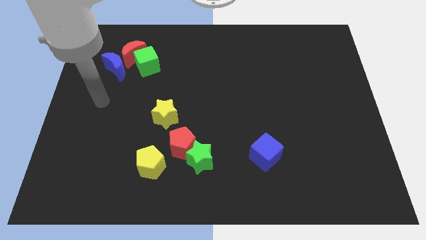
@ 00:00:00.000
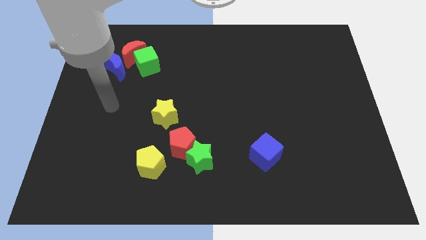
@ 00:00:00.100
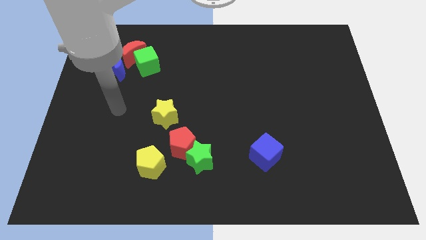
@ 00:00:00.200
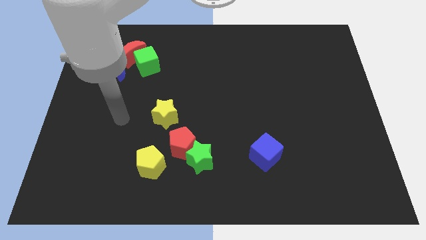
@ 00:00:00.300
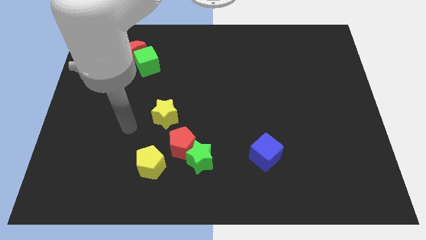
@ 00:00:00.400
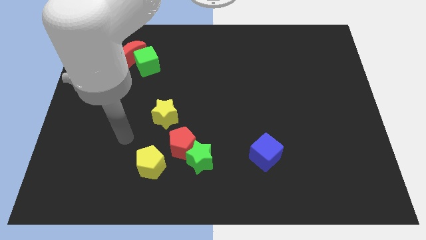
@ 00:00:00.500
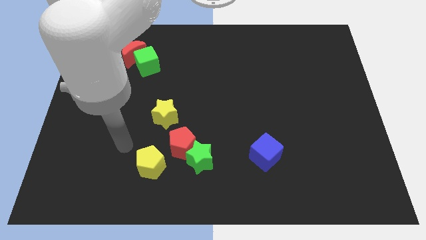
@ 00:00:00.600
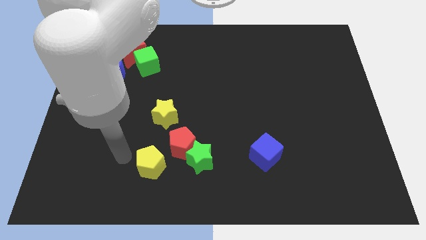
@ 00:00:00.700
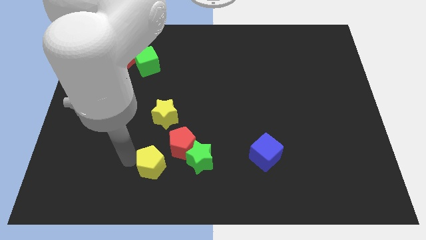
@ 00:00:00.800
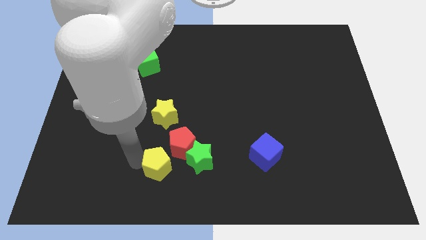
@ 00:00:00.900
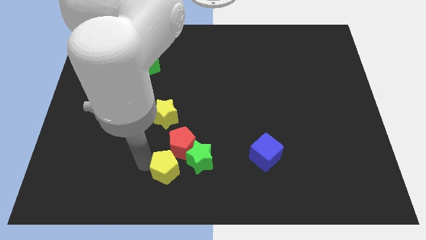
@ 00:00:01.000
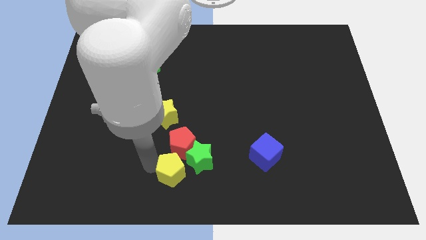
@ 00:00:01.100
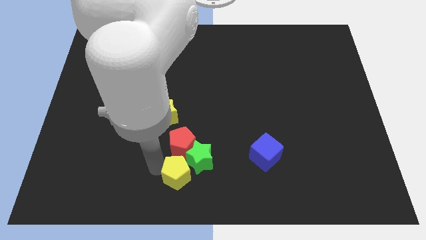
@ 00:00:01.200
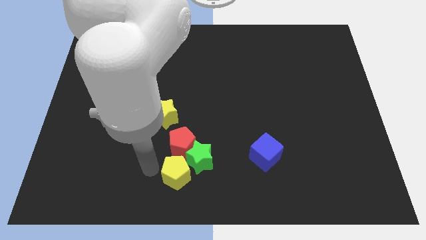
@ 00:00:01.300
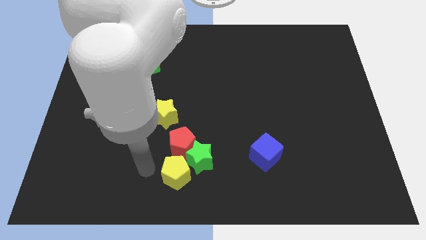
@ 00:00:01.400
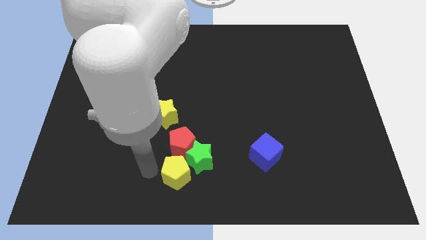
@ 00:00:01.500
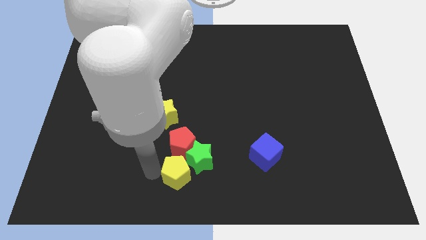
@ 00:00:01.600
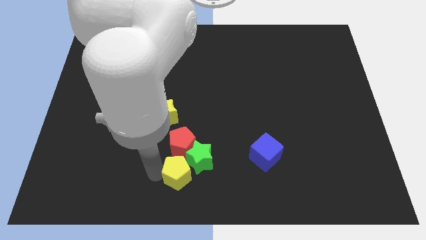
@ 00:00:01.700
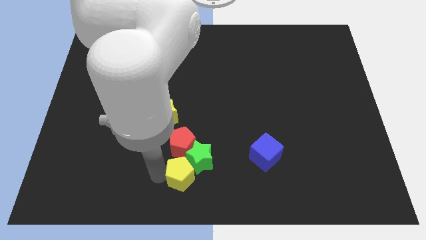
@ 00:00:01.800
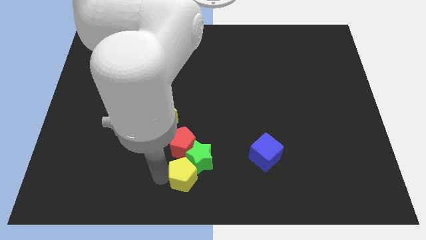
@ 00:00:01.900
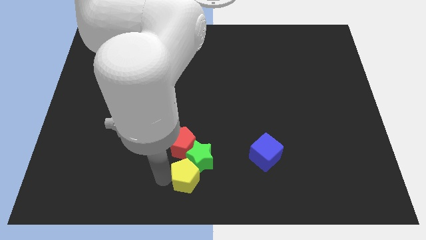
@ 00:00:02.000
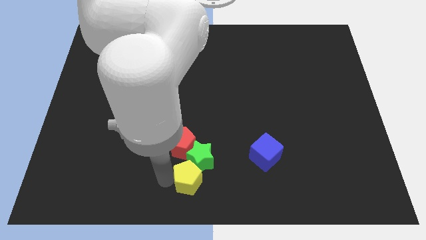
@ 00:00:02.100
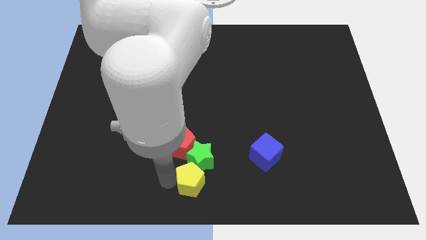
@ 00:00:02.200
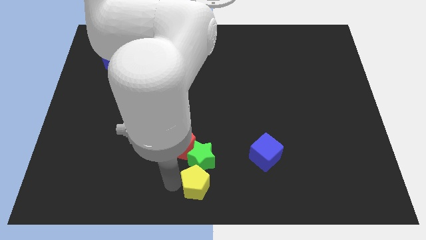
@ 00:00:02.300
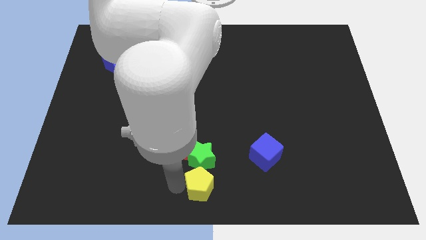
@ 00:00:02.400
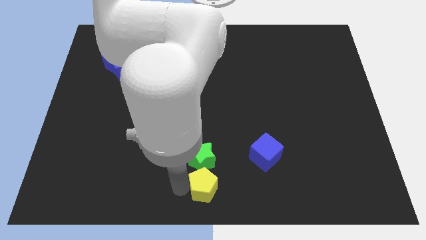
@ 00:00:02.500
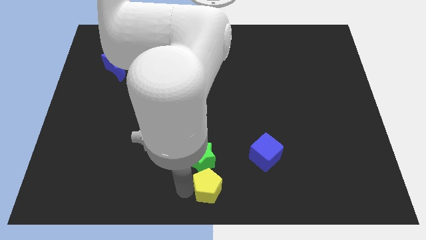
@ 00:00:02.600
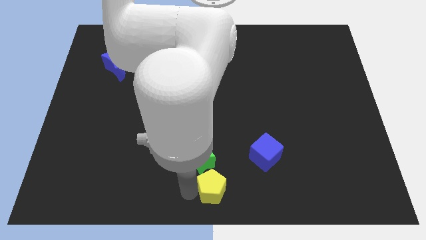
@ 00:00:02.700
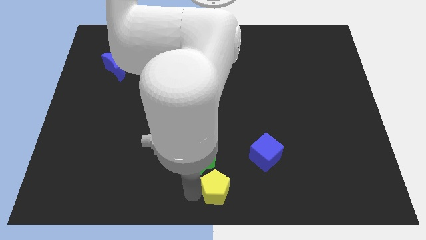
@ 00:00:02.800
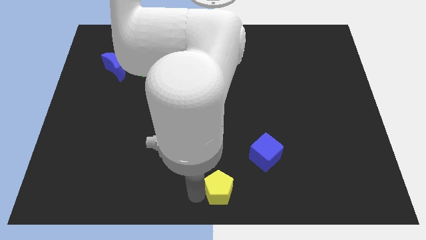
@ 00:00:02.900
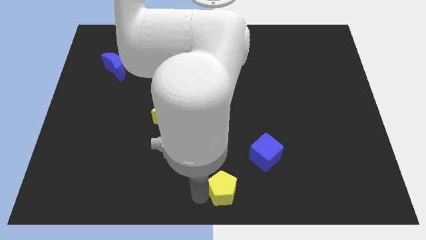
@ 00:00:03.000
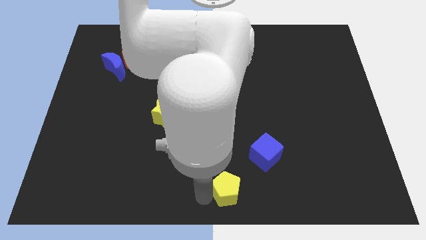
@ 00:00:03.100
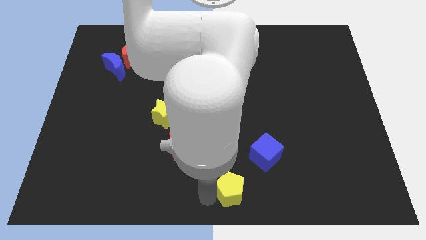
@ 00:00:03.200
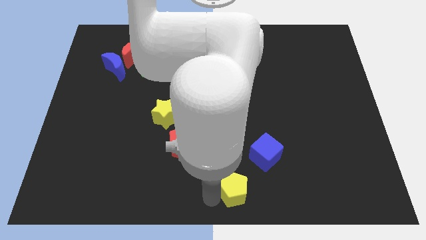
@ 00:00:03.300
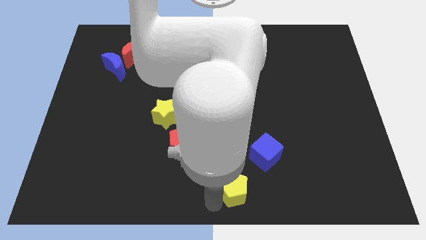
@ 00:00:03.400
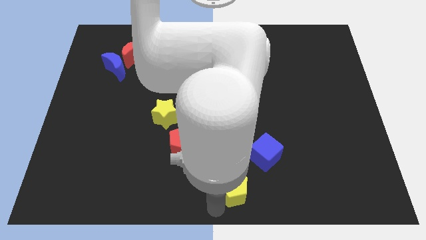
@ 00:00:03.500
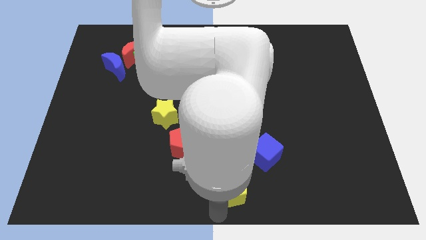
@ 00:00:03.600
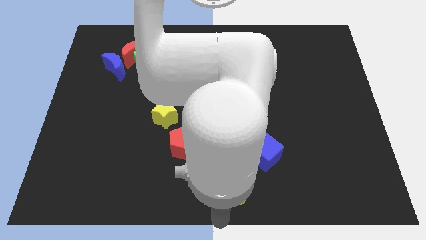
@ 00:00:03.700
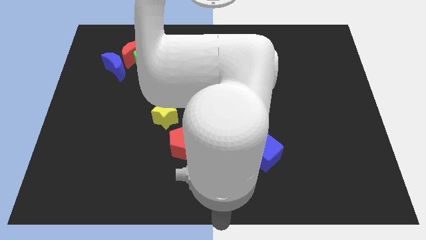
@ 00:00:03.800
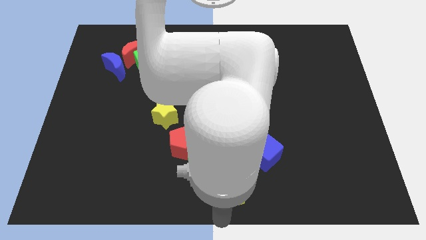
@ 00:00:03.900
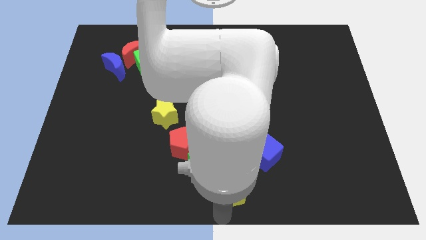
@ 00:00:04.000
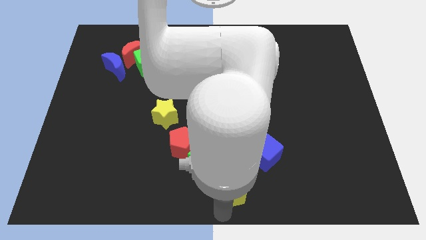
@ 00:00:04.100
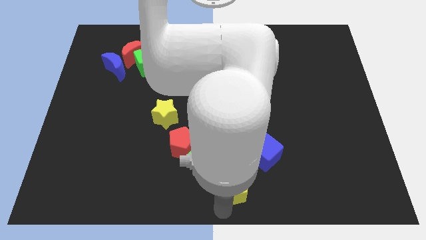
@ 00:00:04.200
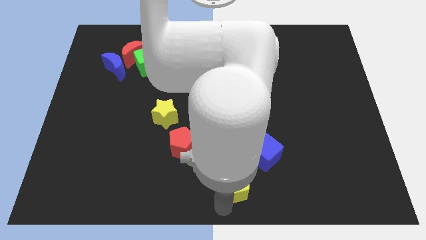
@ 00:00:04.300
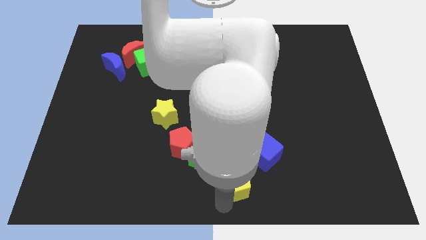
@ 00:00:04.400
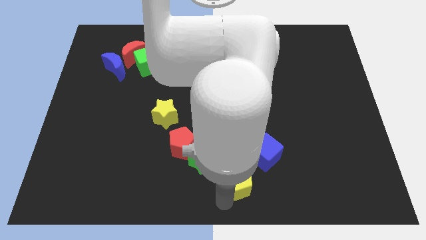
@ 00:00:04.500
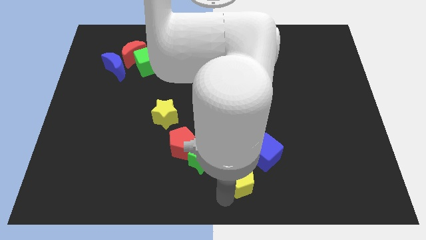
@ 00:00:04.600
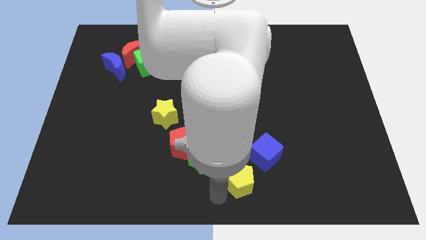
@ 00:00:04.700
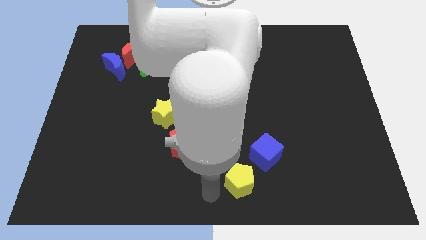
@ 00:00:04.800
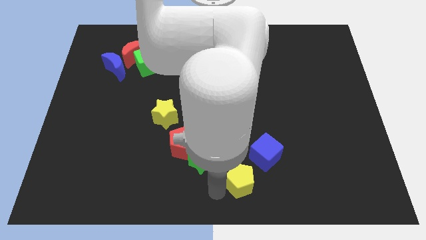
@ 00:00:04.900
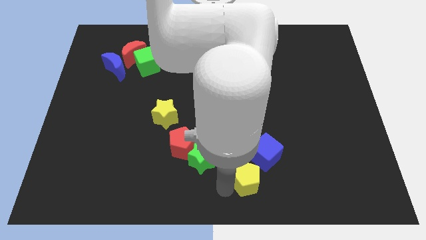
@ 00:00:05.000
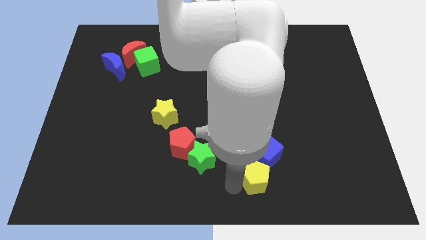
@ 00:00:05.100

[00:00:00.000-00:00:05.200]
slide the yellow pentagon right

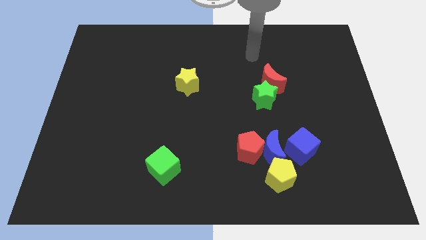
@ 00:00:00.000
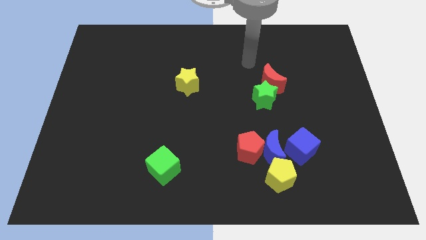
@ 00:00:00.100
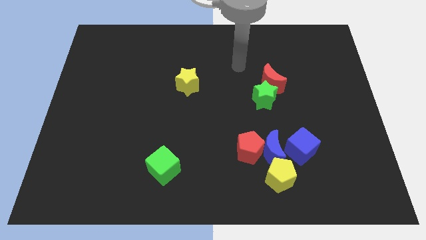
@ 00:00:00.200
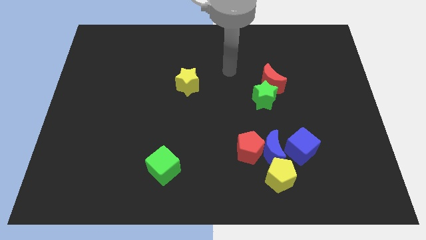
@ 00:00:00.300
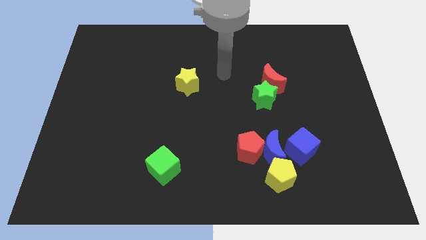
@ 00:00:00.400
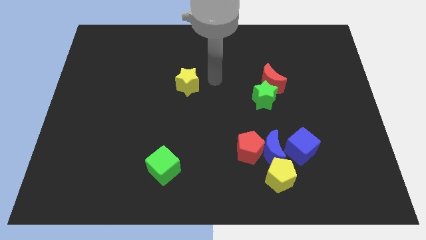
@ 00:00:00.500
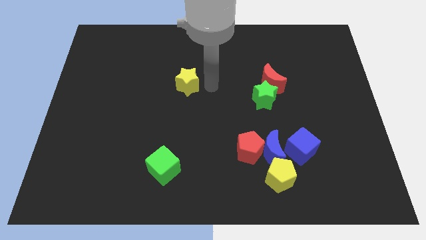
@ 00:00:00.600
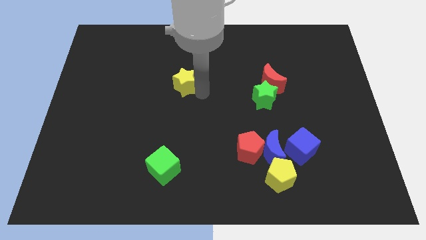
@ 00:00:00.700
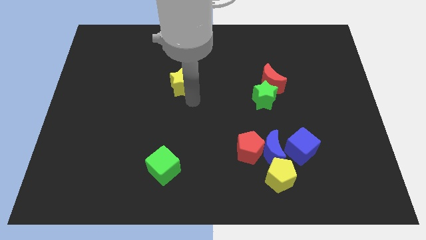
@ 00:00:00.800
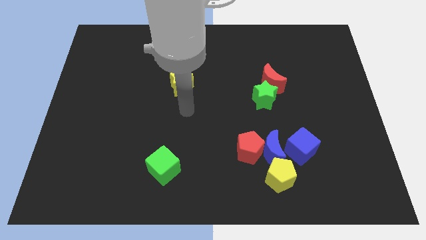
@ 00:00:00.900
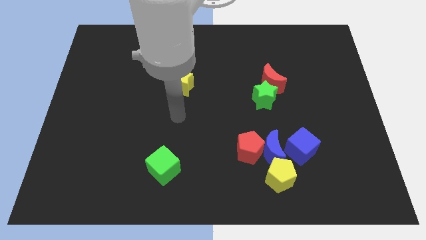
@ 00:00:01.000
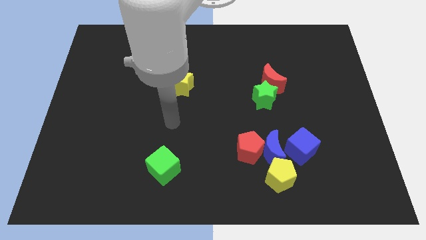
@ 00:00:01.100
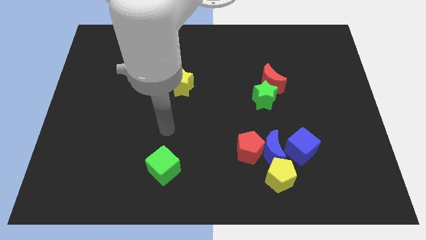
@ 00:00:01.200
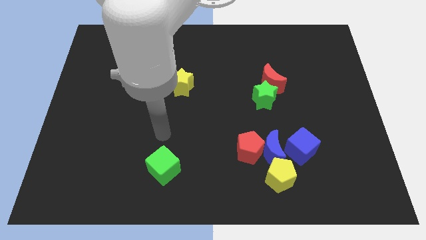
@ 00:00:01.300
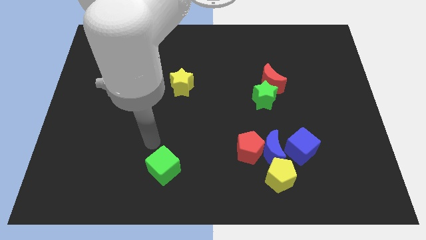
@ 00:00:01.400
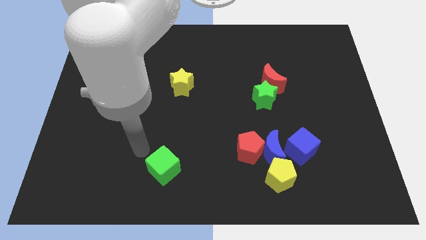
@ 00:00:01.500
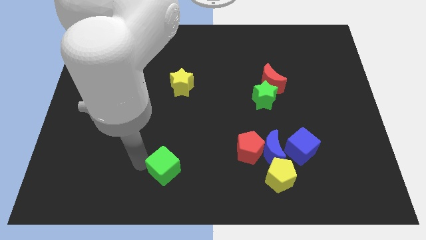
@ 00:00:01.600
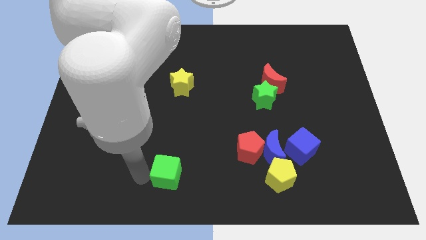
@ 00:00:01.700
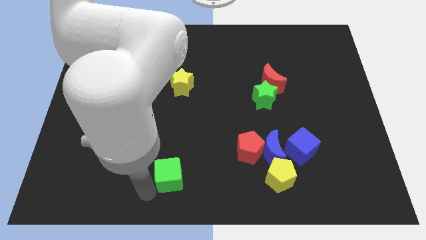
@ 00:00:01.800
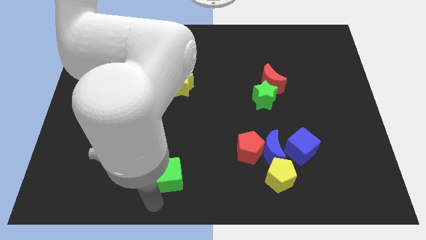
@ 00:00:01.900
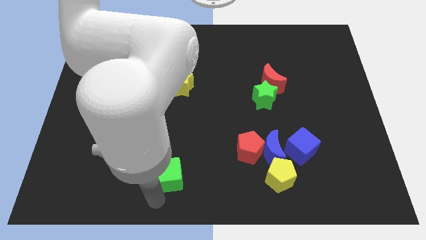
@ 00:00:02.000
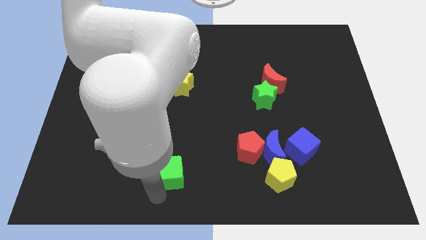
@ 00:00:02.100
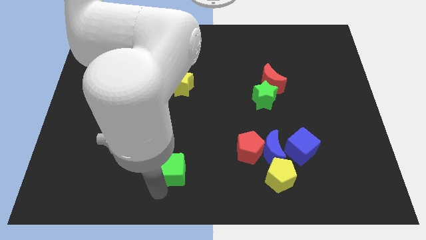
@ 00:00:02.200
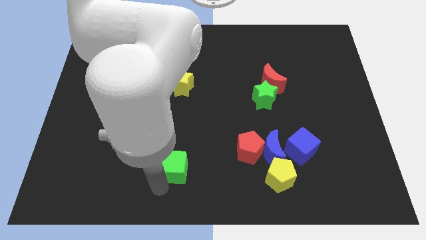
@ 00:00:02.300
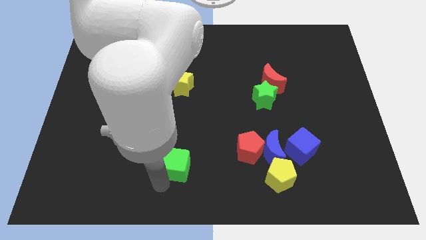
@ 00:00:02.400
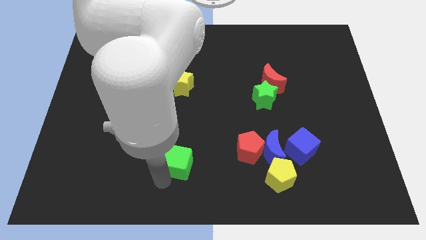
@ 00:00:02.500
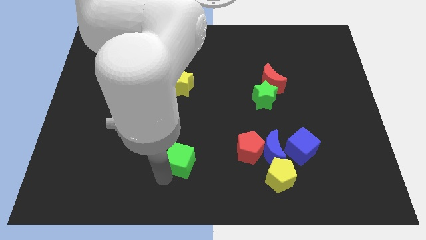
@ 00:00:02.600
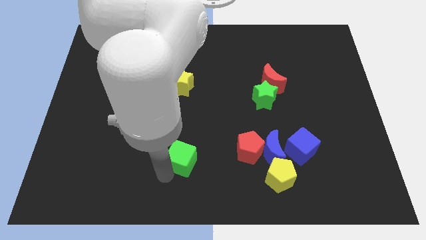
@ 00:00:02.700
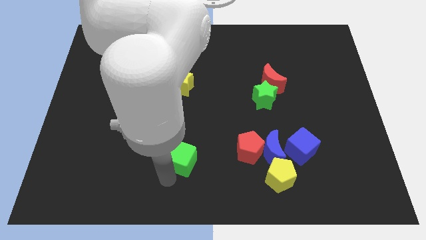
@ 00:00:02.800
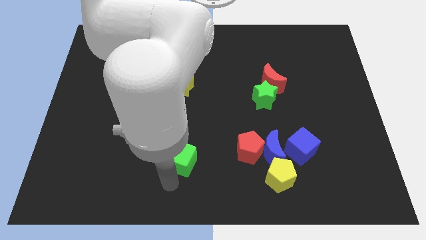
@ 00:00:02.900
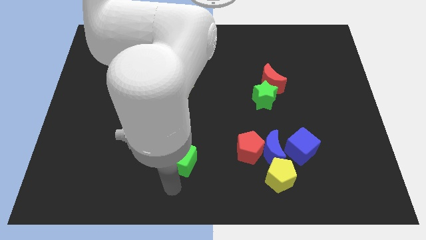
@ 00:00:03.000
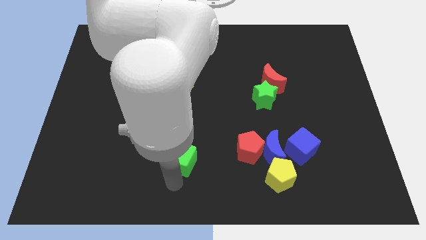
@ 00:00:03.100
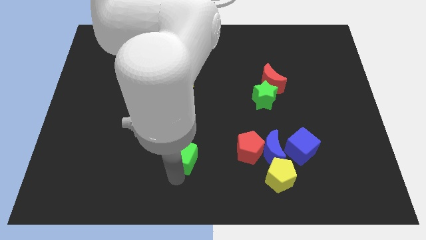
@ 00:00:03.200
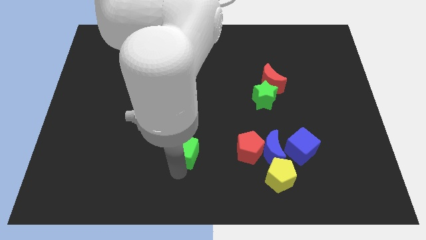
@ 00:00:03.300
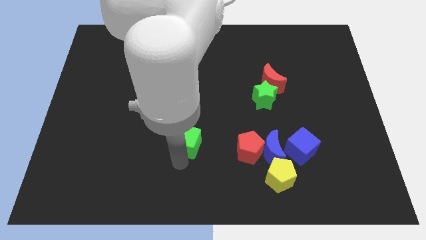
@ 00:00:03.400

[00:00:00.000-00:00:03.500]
slide the green cube diagonally upwards and right a little
